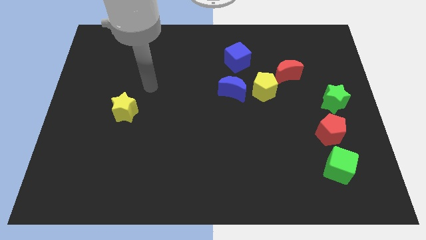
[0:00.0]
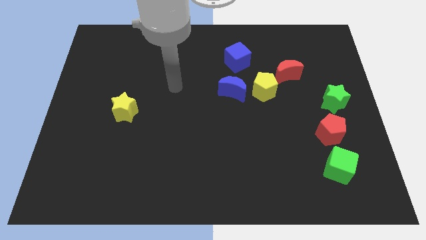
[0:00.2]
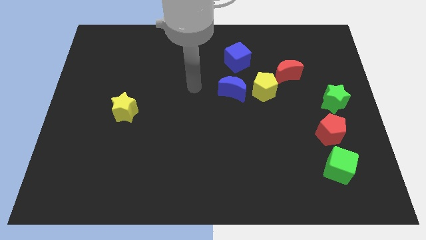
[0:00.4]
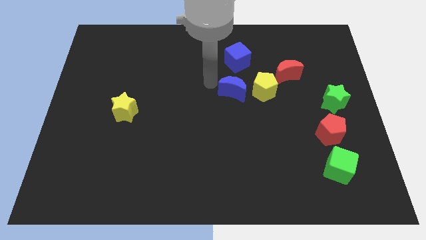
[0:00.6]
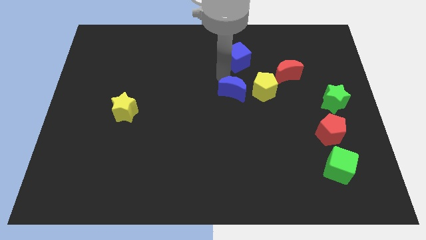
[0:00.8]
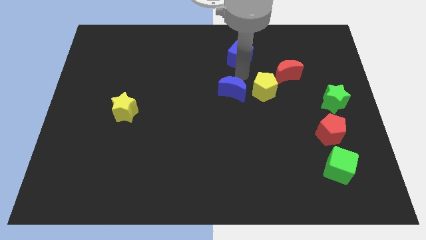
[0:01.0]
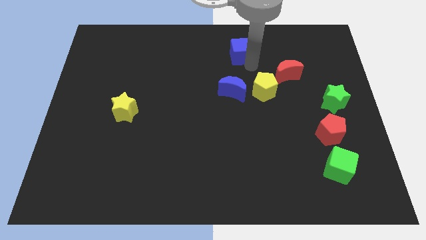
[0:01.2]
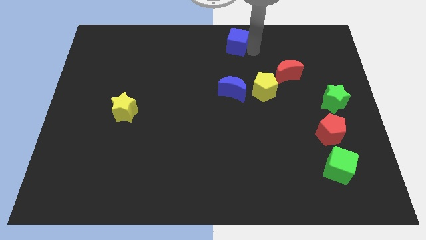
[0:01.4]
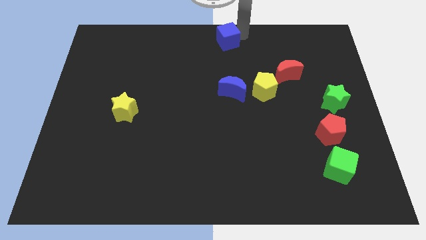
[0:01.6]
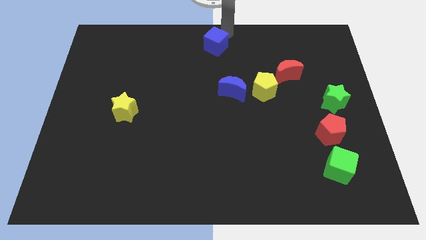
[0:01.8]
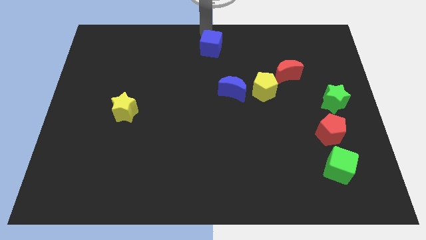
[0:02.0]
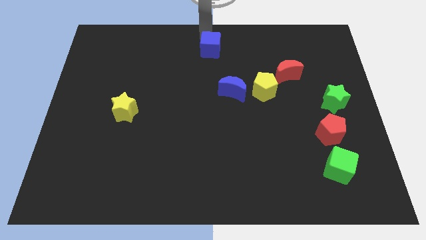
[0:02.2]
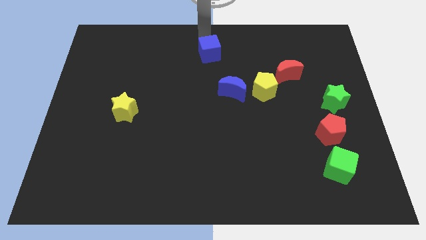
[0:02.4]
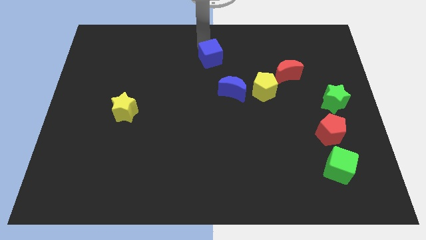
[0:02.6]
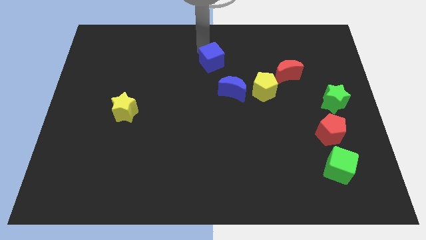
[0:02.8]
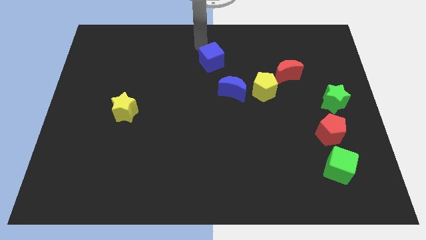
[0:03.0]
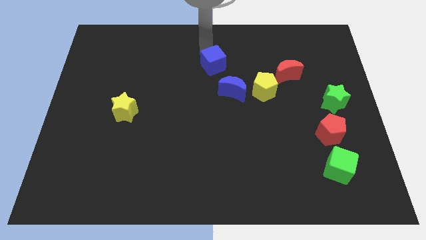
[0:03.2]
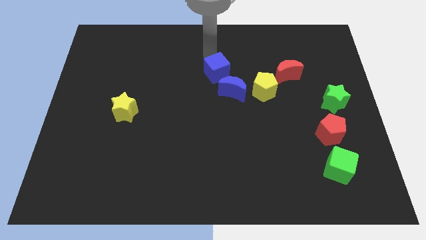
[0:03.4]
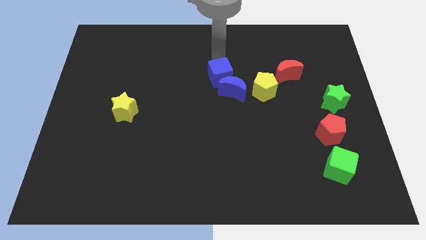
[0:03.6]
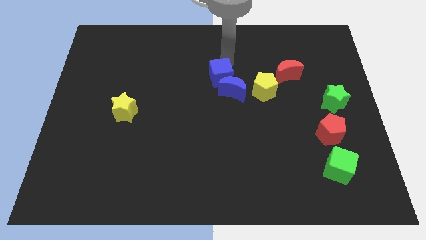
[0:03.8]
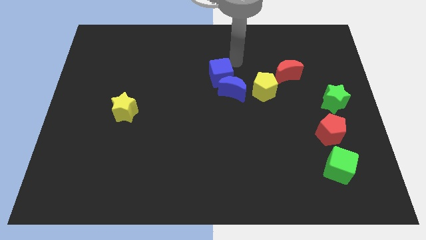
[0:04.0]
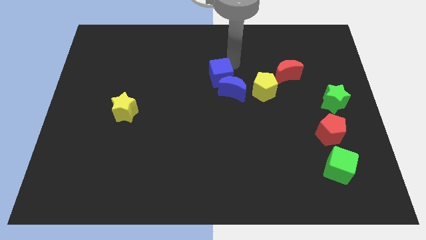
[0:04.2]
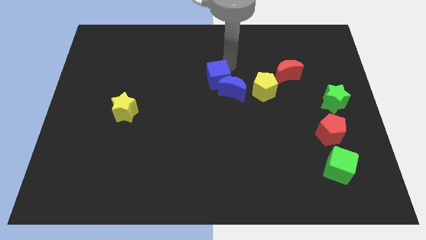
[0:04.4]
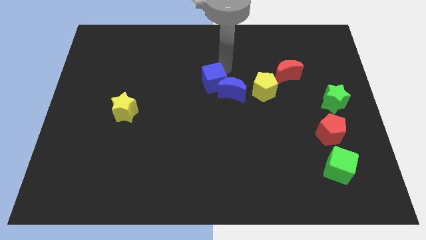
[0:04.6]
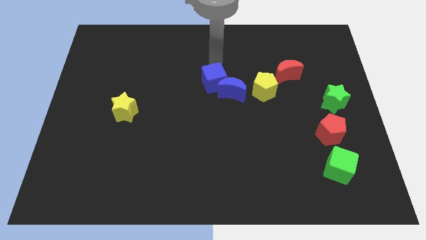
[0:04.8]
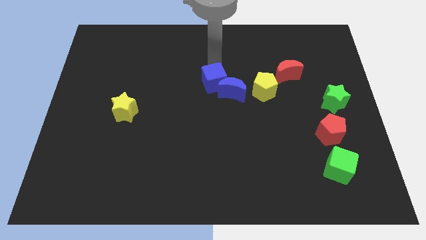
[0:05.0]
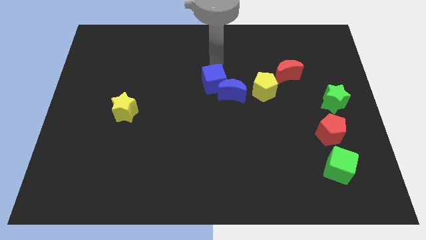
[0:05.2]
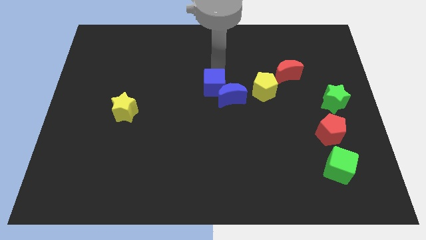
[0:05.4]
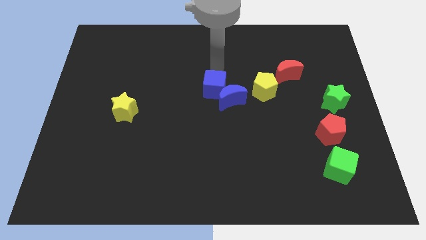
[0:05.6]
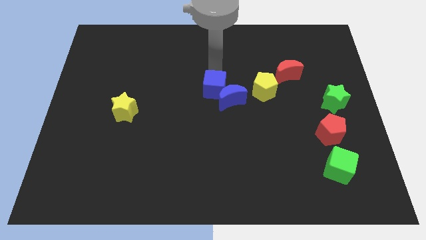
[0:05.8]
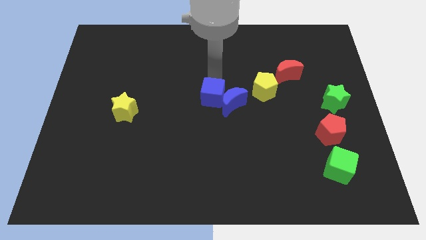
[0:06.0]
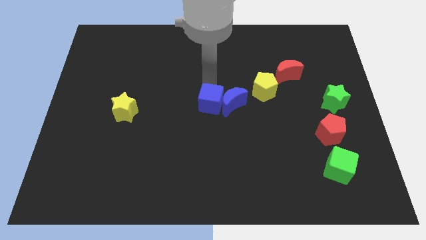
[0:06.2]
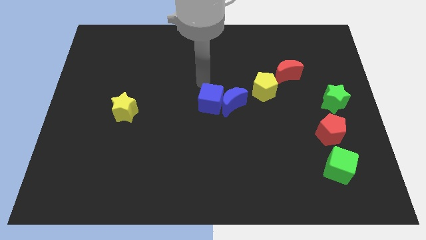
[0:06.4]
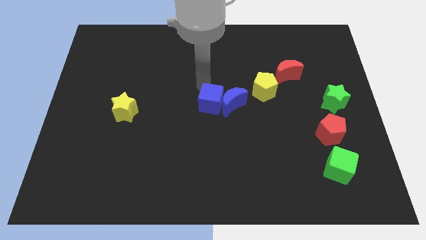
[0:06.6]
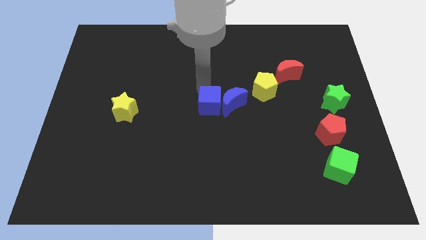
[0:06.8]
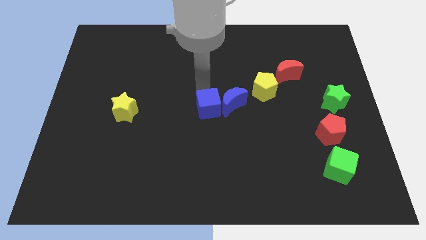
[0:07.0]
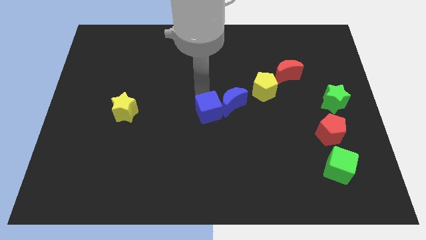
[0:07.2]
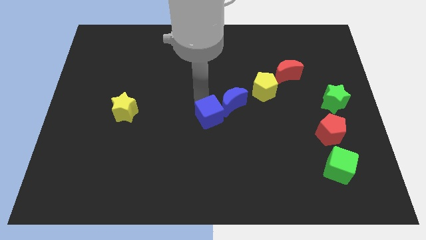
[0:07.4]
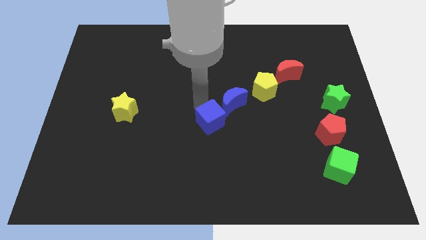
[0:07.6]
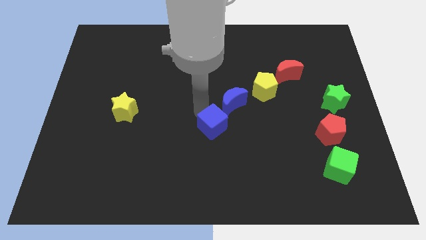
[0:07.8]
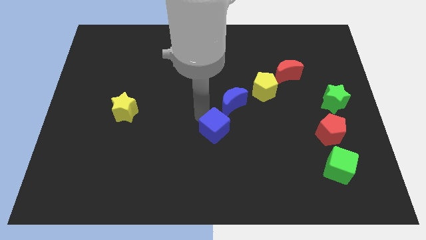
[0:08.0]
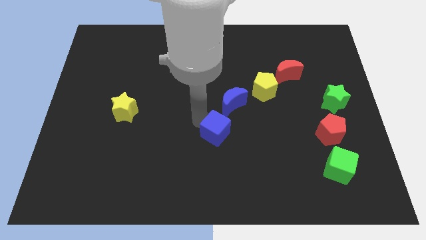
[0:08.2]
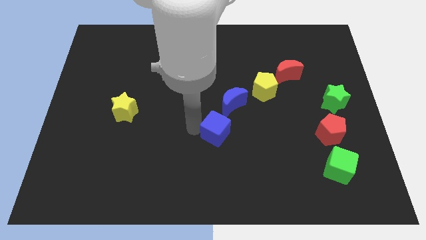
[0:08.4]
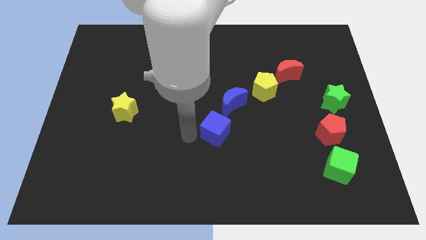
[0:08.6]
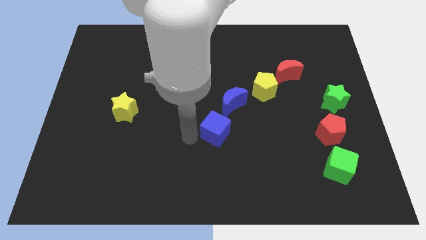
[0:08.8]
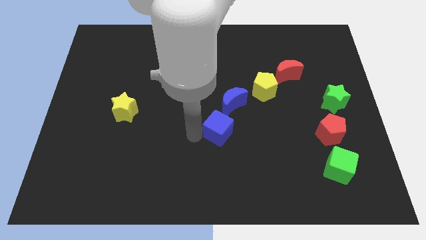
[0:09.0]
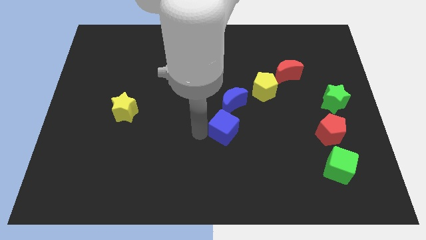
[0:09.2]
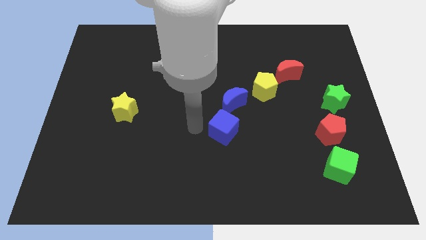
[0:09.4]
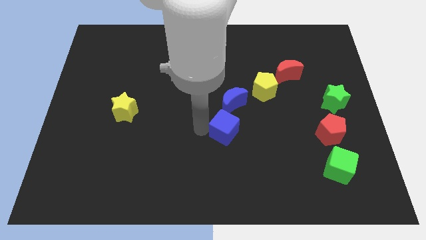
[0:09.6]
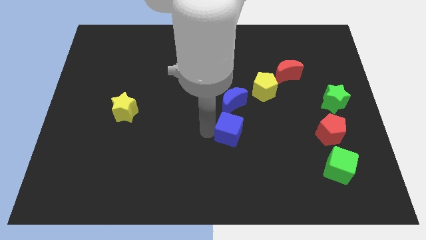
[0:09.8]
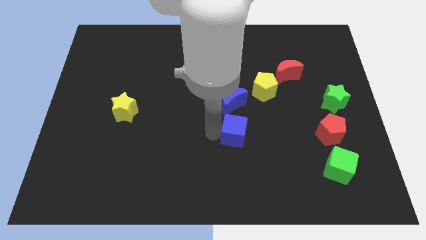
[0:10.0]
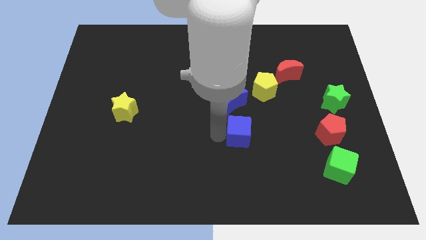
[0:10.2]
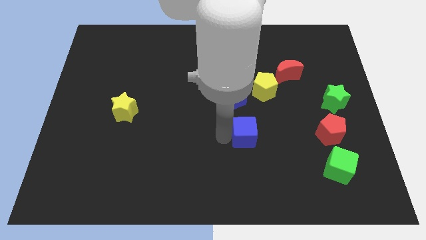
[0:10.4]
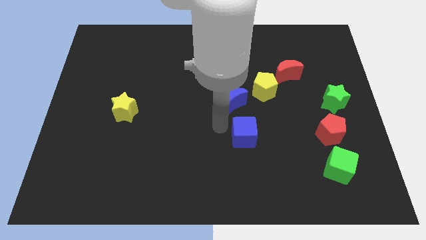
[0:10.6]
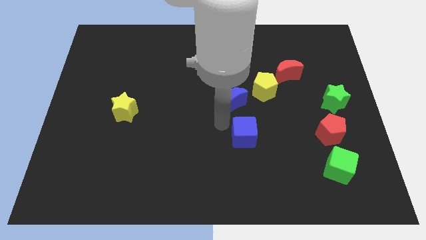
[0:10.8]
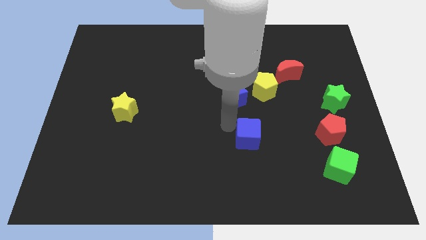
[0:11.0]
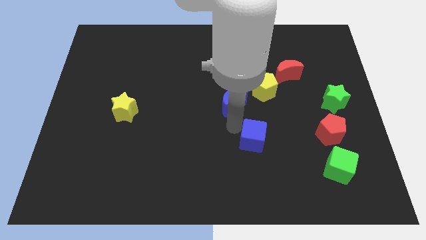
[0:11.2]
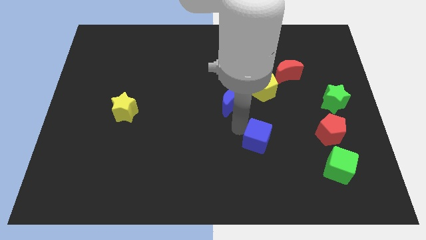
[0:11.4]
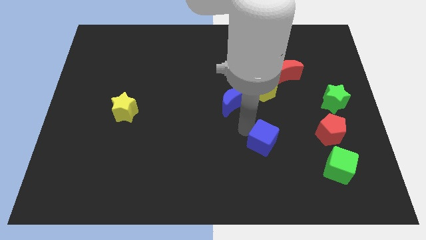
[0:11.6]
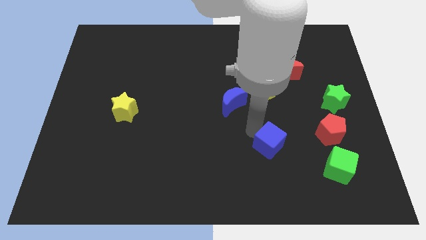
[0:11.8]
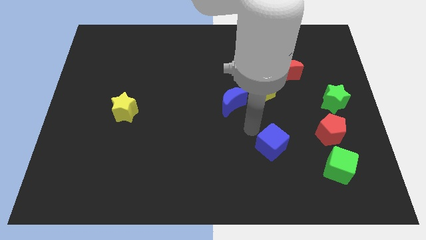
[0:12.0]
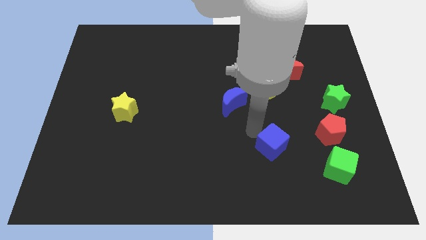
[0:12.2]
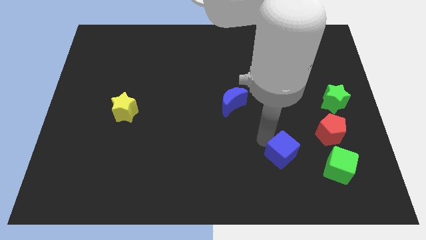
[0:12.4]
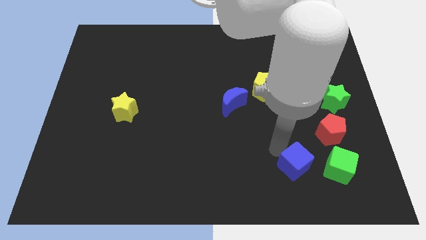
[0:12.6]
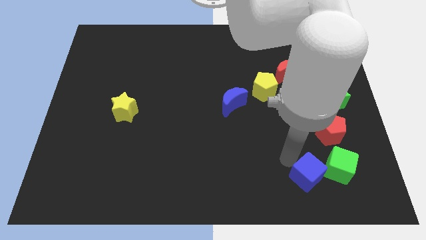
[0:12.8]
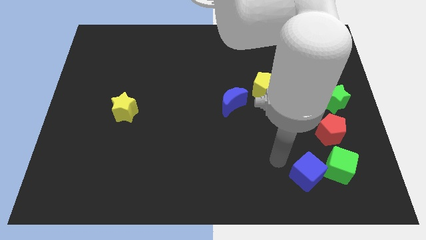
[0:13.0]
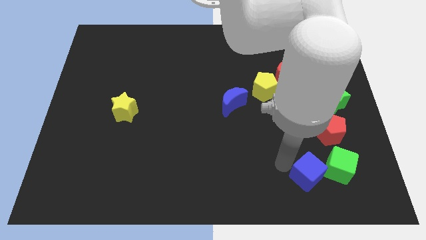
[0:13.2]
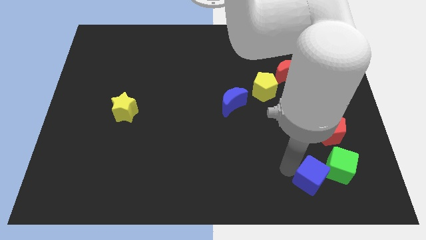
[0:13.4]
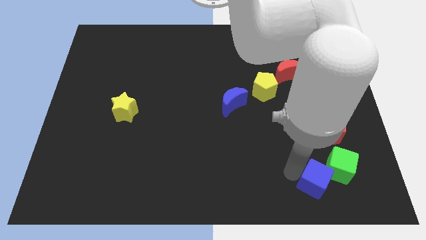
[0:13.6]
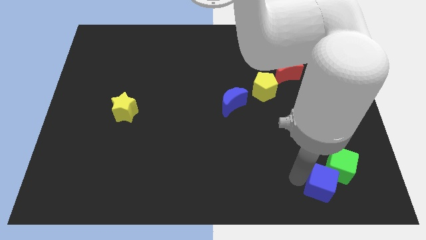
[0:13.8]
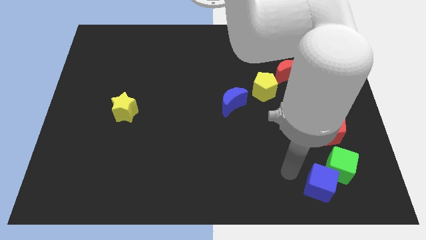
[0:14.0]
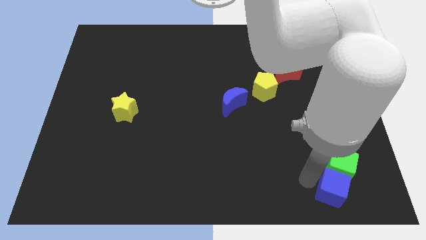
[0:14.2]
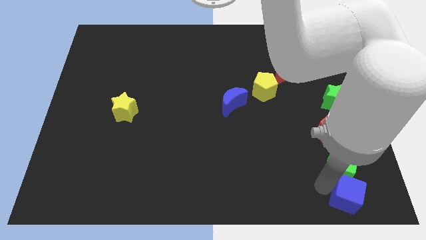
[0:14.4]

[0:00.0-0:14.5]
move the blue cube to the lower right corner
